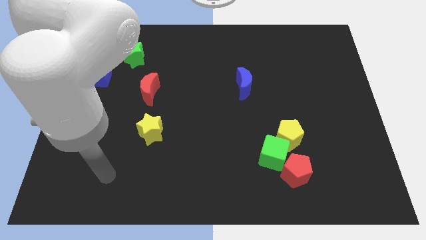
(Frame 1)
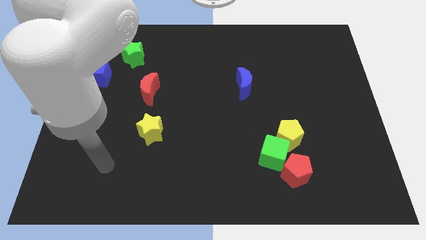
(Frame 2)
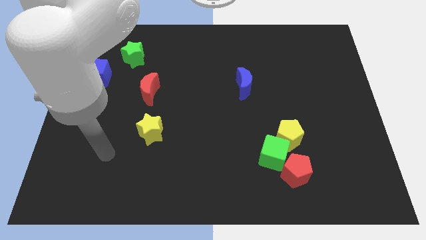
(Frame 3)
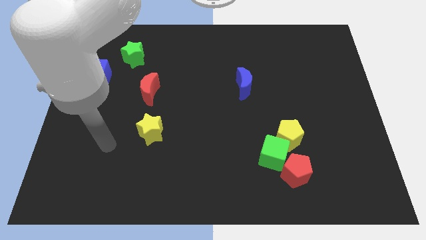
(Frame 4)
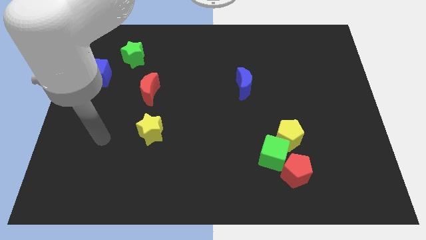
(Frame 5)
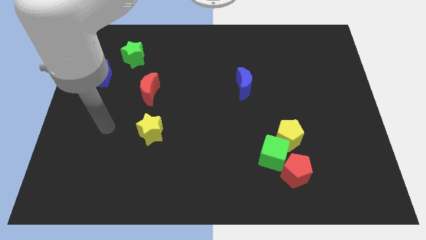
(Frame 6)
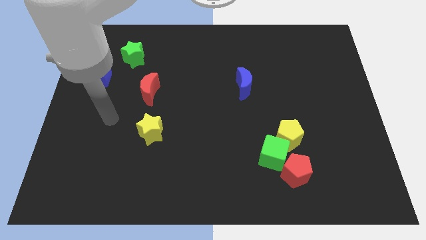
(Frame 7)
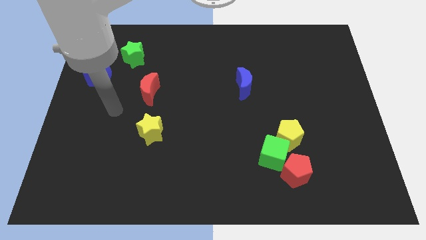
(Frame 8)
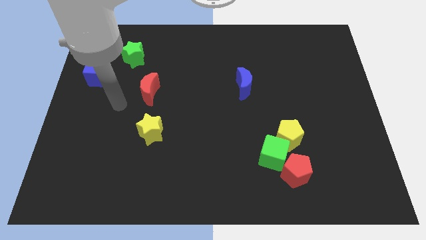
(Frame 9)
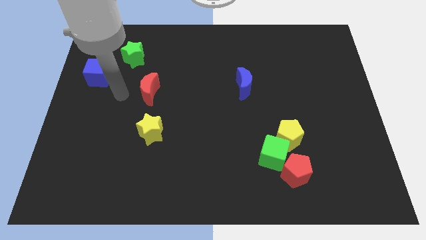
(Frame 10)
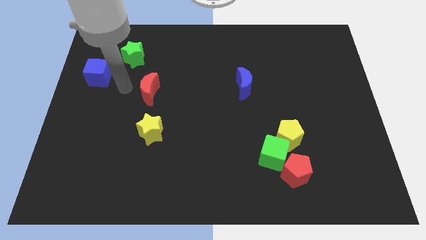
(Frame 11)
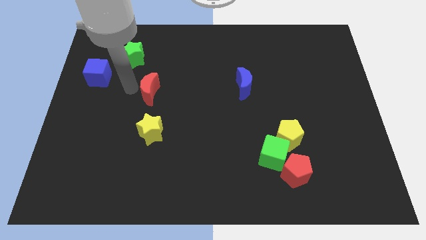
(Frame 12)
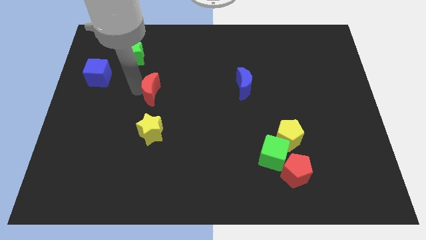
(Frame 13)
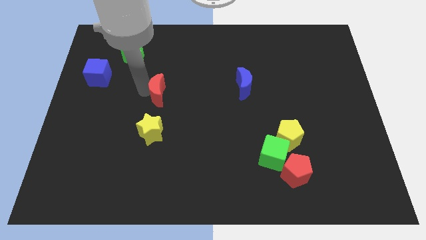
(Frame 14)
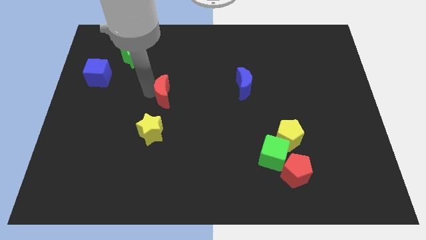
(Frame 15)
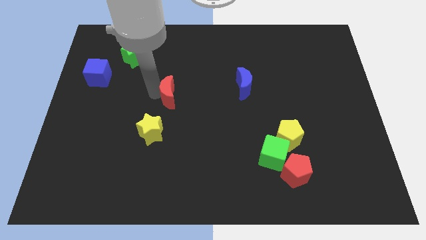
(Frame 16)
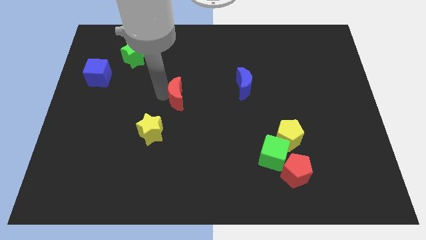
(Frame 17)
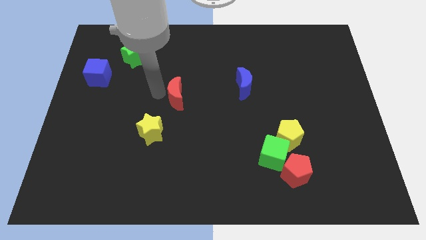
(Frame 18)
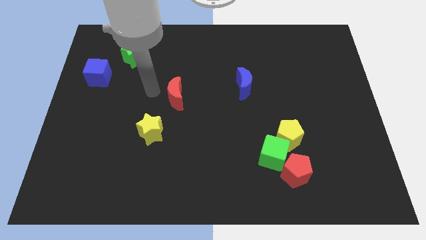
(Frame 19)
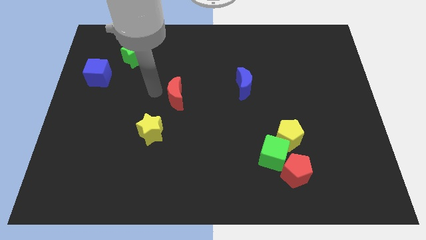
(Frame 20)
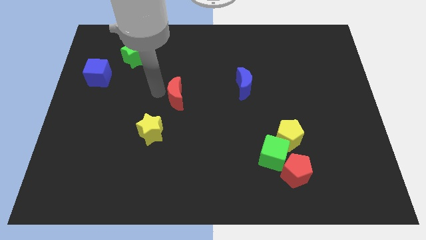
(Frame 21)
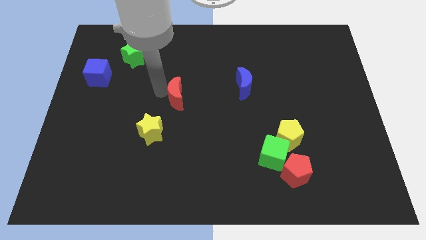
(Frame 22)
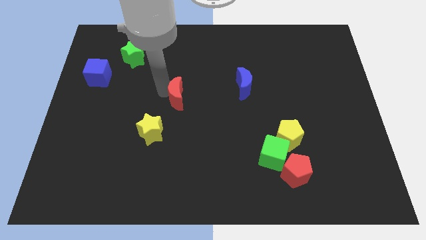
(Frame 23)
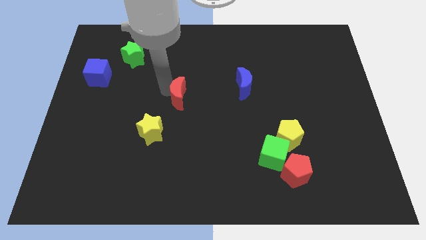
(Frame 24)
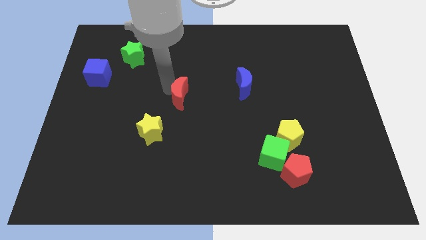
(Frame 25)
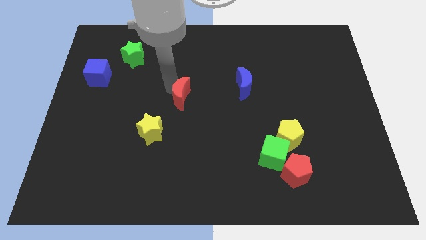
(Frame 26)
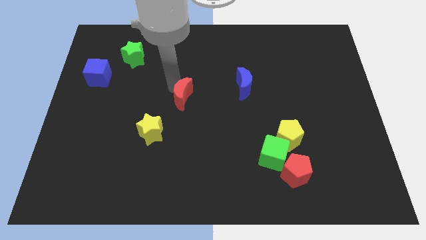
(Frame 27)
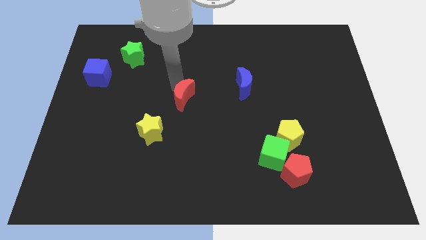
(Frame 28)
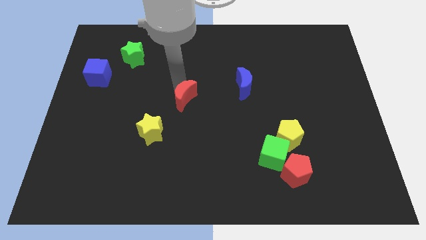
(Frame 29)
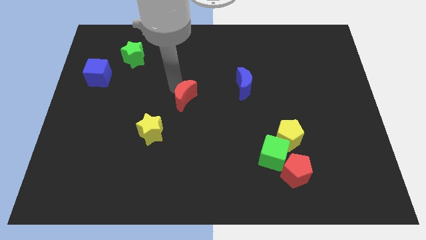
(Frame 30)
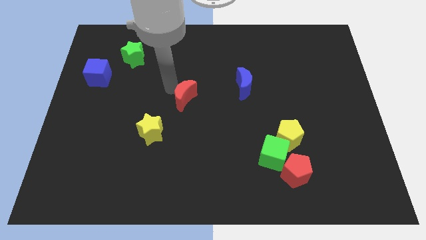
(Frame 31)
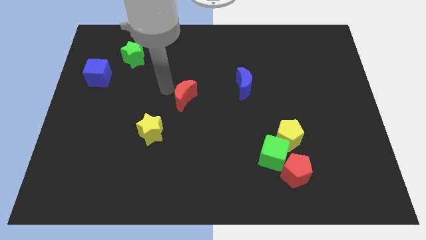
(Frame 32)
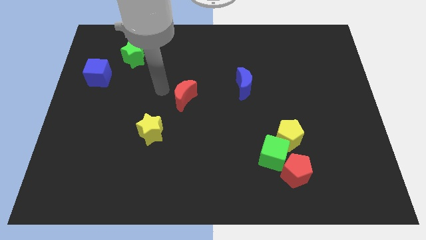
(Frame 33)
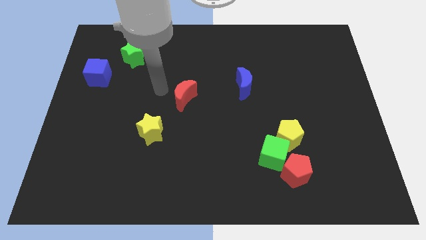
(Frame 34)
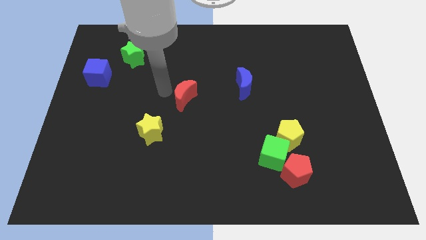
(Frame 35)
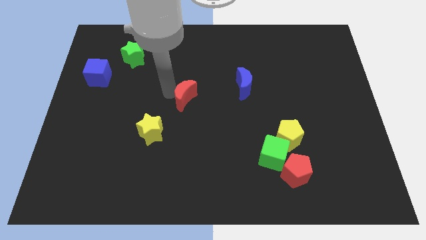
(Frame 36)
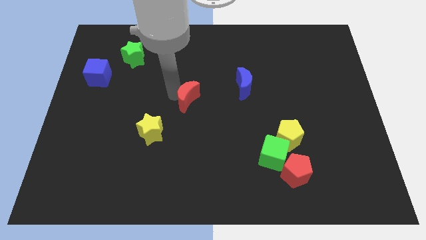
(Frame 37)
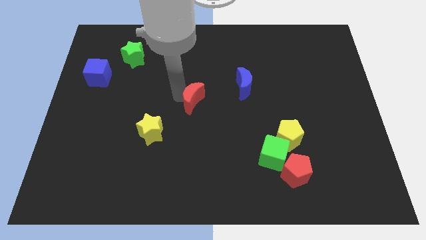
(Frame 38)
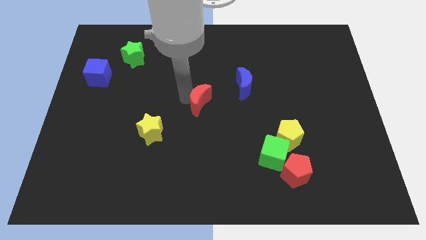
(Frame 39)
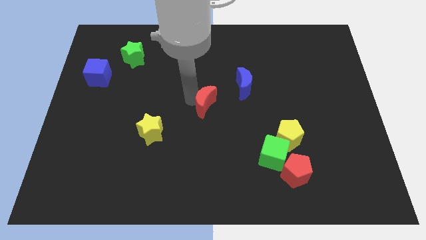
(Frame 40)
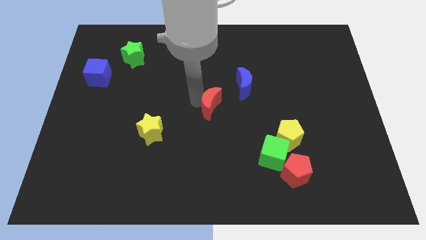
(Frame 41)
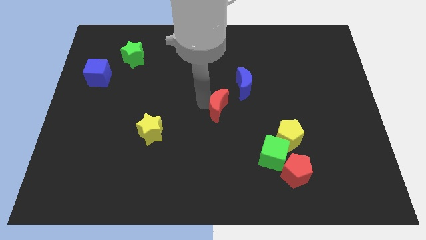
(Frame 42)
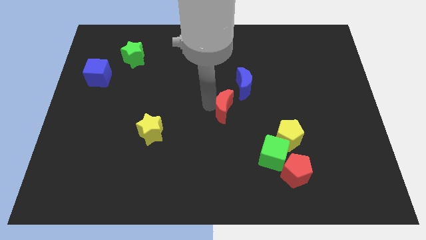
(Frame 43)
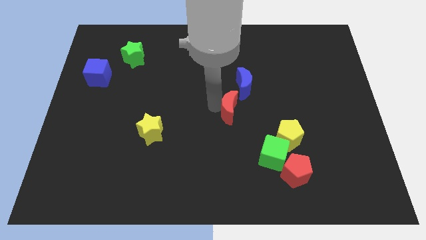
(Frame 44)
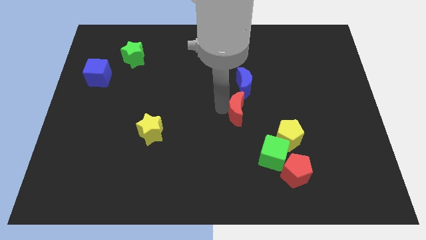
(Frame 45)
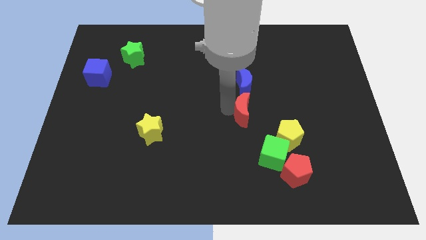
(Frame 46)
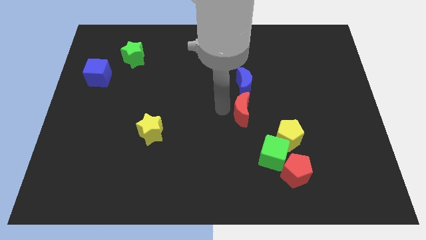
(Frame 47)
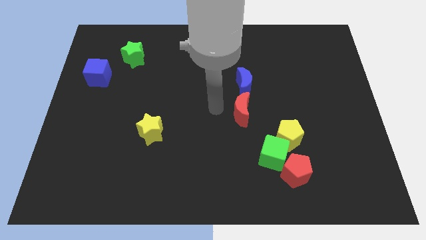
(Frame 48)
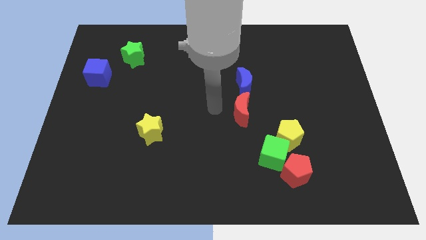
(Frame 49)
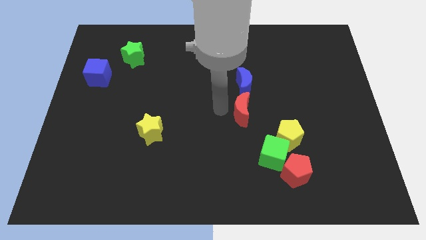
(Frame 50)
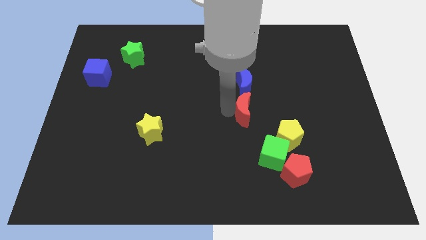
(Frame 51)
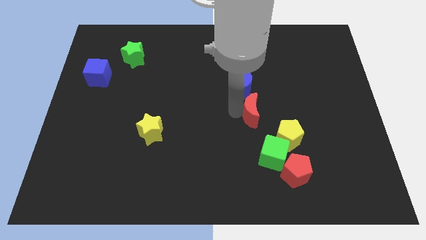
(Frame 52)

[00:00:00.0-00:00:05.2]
put the red moon to the top side of the green cube

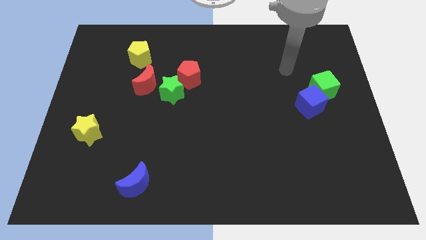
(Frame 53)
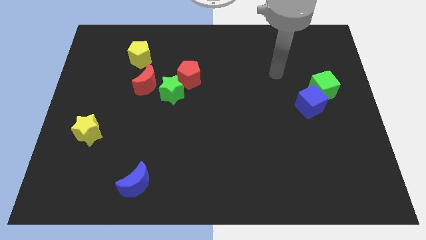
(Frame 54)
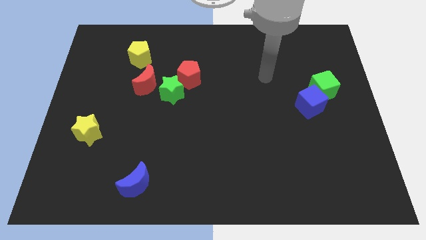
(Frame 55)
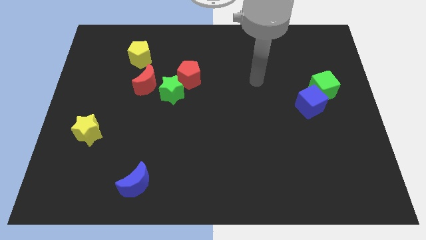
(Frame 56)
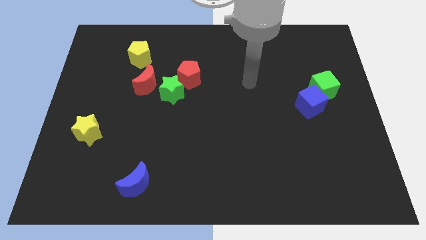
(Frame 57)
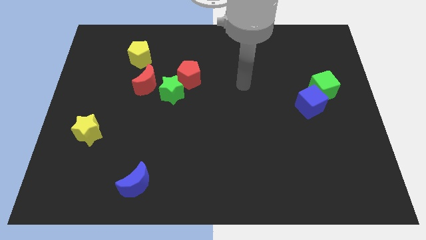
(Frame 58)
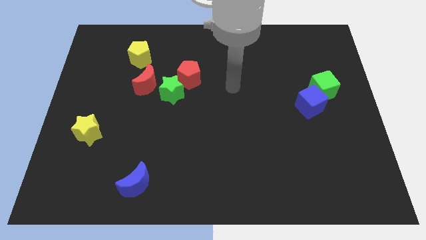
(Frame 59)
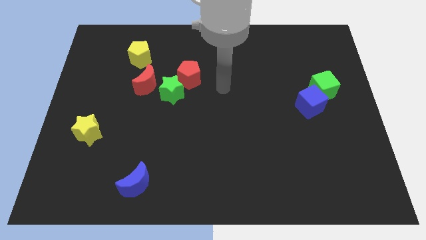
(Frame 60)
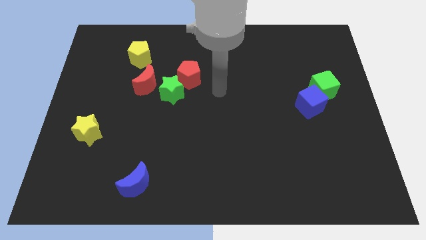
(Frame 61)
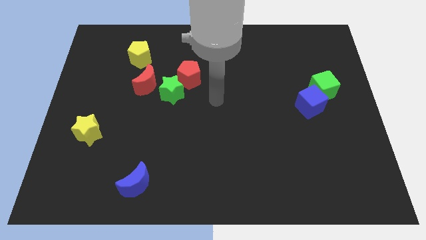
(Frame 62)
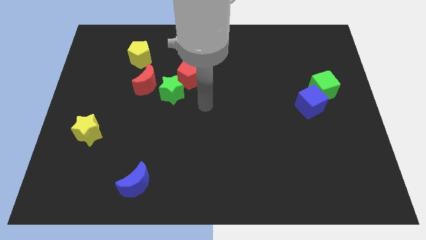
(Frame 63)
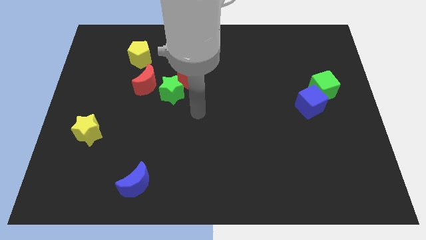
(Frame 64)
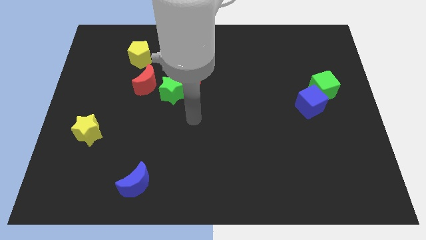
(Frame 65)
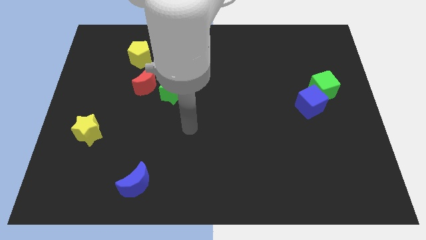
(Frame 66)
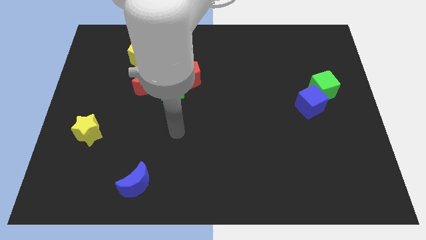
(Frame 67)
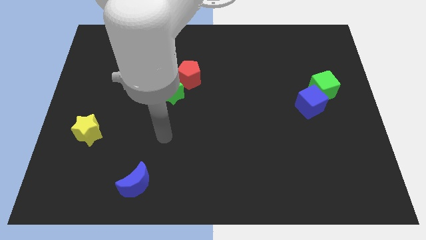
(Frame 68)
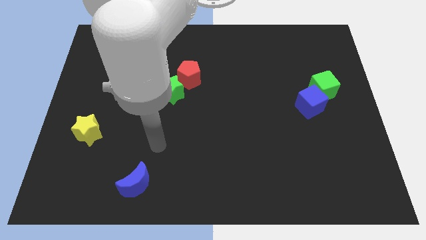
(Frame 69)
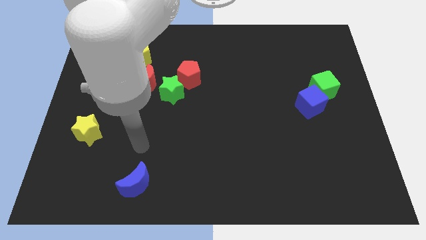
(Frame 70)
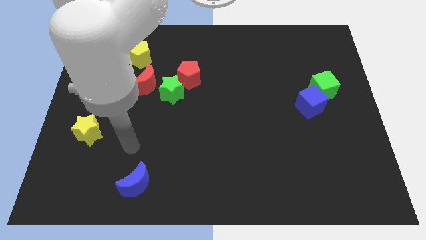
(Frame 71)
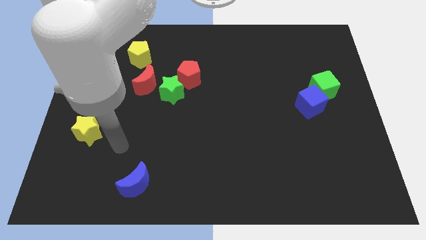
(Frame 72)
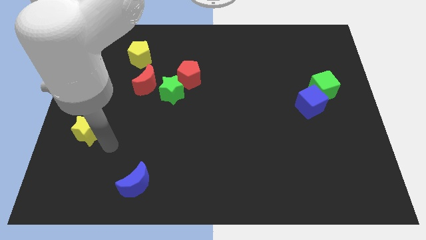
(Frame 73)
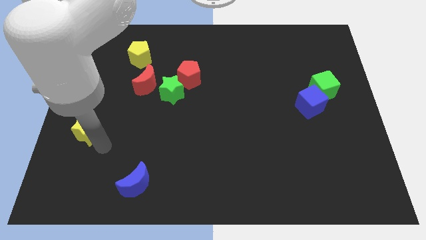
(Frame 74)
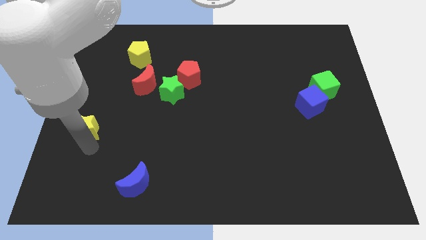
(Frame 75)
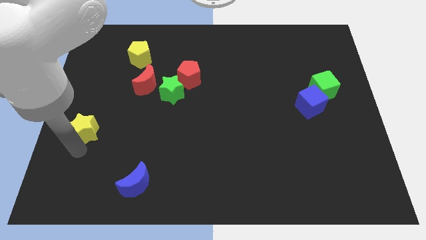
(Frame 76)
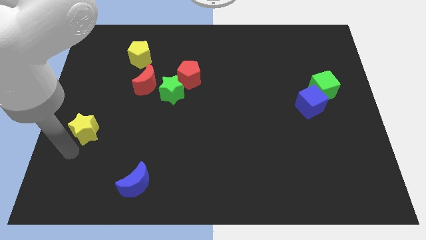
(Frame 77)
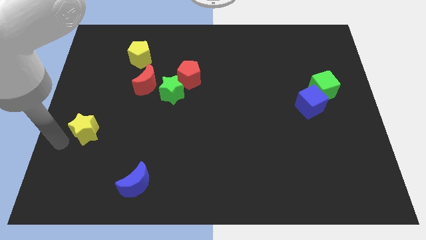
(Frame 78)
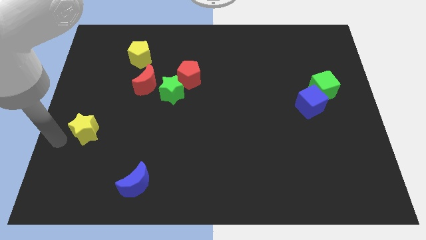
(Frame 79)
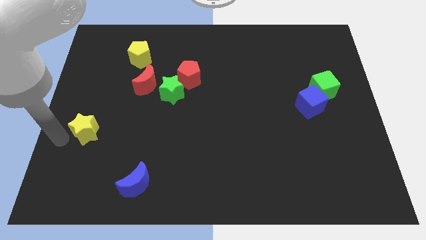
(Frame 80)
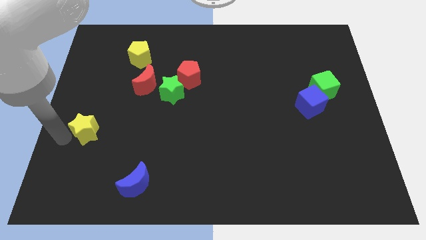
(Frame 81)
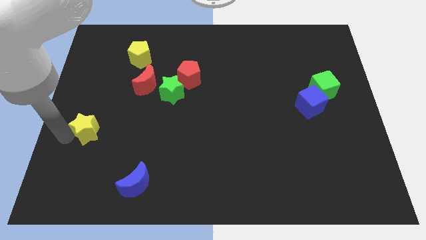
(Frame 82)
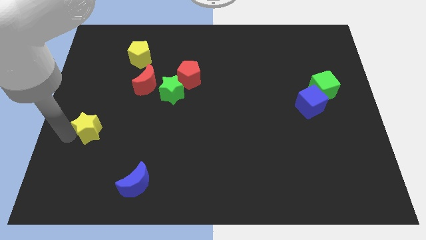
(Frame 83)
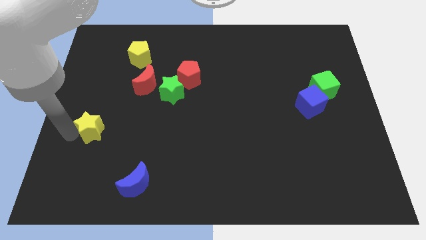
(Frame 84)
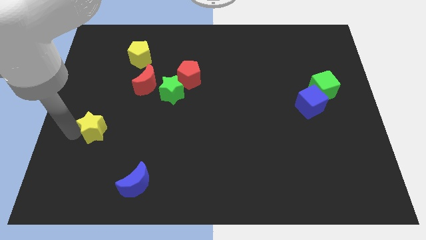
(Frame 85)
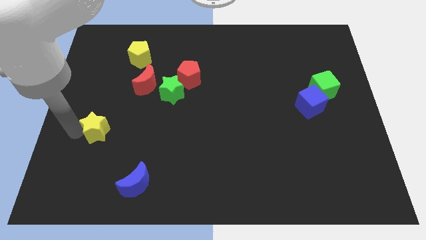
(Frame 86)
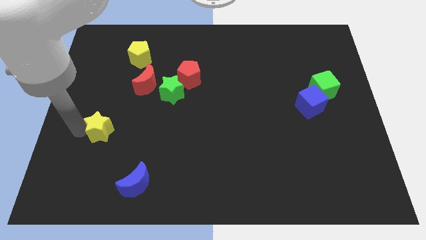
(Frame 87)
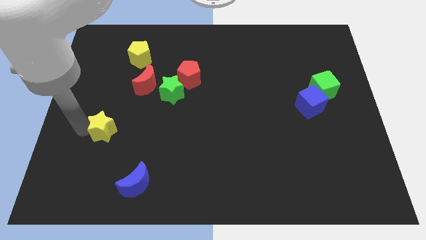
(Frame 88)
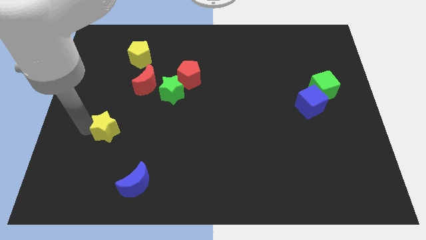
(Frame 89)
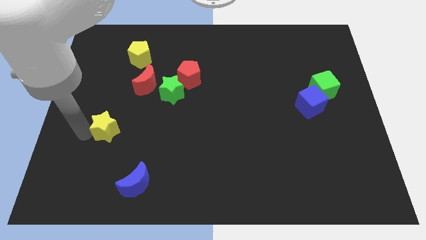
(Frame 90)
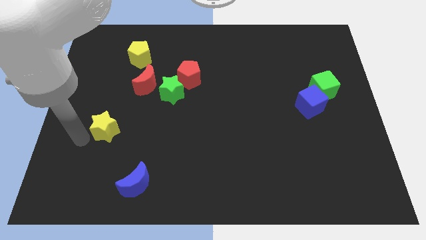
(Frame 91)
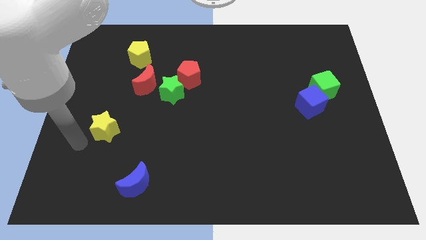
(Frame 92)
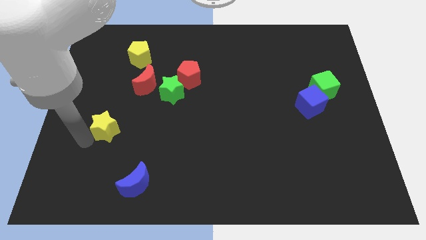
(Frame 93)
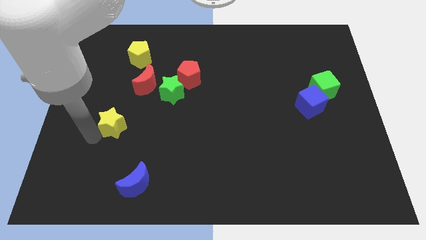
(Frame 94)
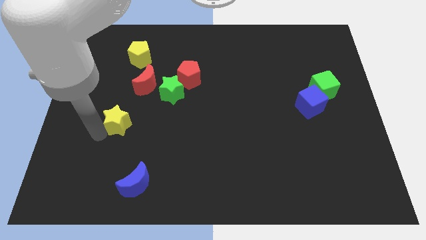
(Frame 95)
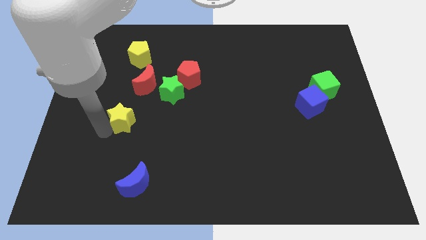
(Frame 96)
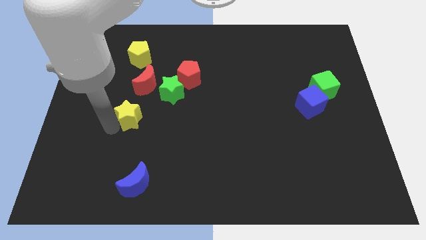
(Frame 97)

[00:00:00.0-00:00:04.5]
push the yellow star diagonally down and to the left of the green star
